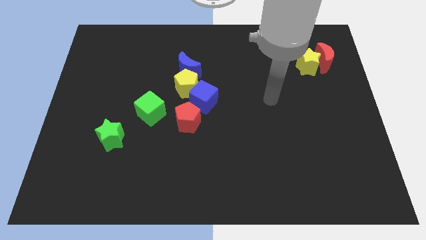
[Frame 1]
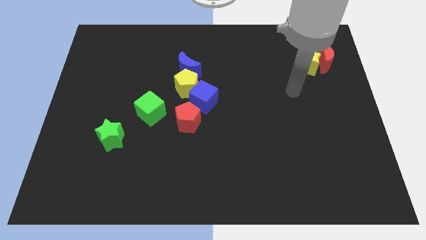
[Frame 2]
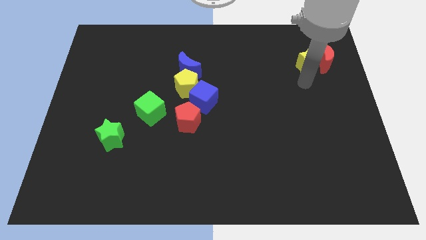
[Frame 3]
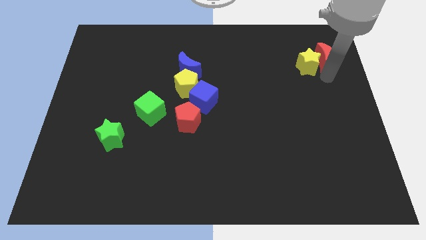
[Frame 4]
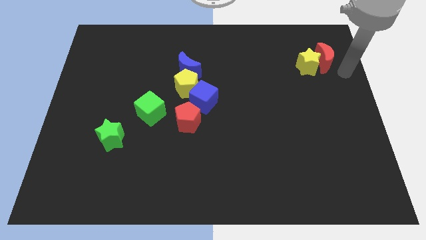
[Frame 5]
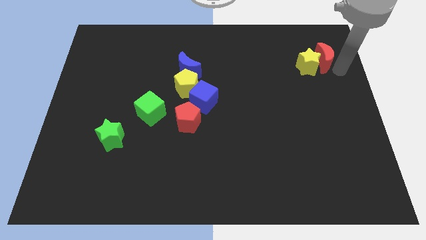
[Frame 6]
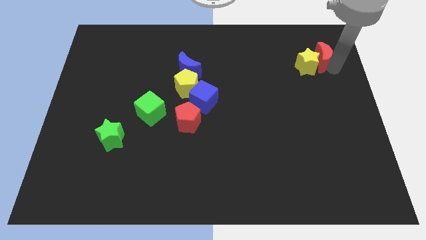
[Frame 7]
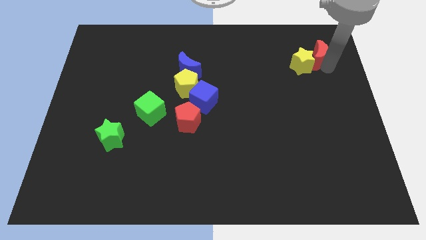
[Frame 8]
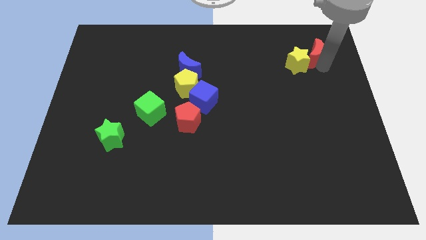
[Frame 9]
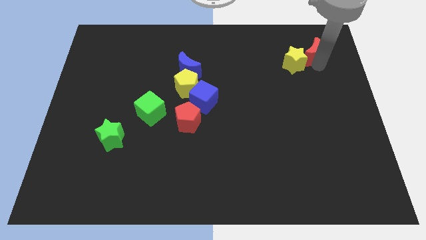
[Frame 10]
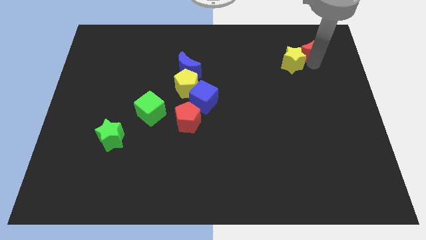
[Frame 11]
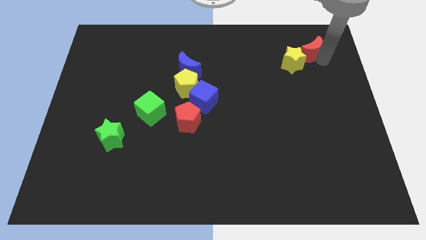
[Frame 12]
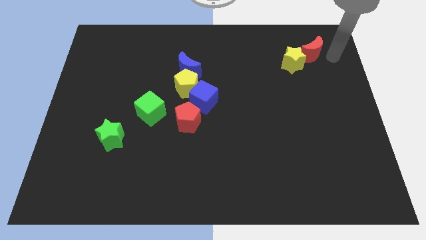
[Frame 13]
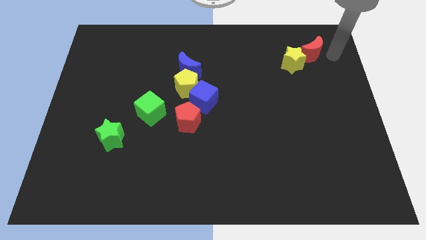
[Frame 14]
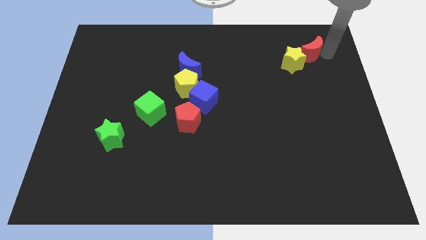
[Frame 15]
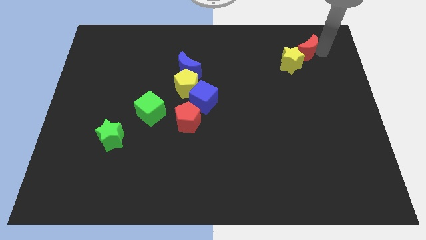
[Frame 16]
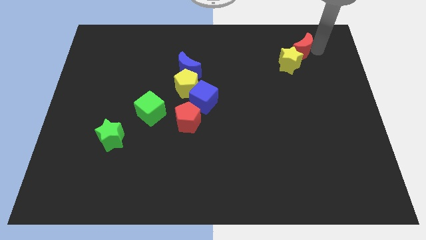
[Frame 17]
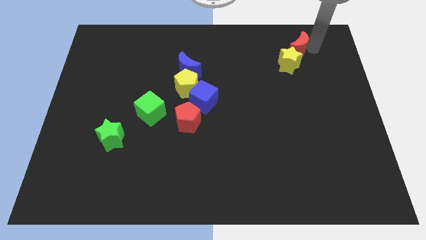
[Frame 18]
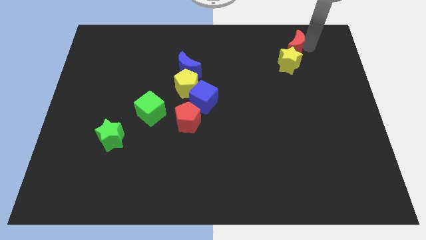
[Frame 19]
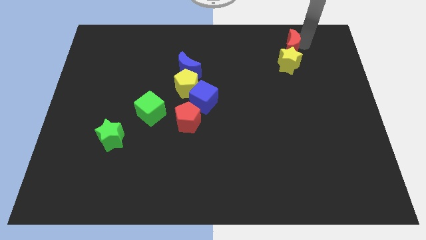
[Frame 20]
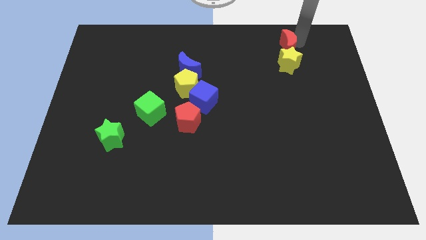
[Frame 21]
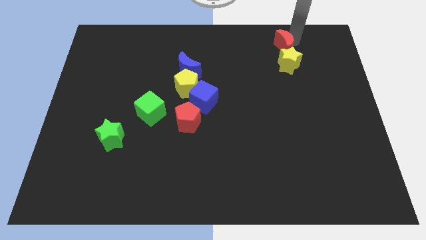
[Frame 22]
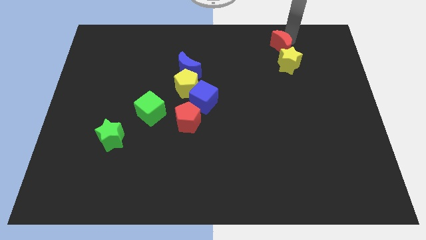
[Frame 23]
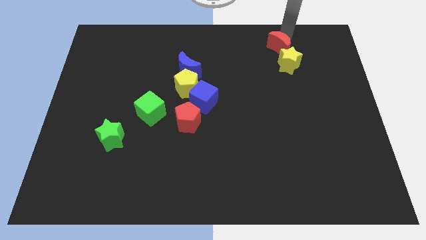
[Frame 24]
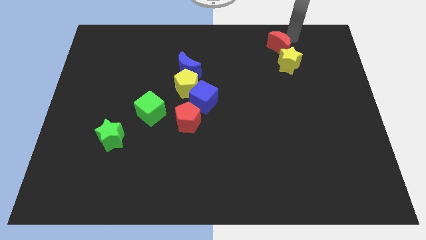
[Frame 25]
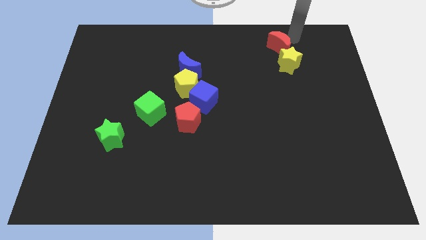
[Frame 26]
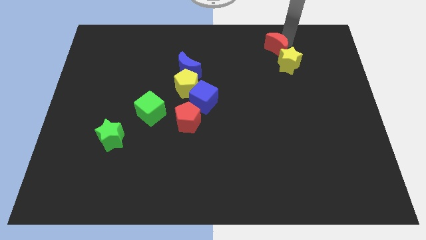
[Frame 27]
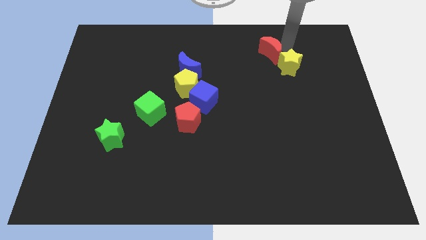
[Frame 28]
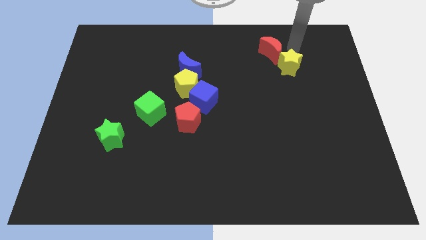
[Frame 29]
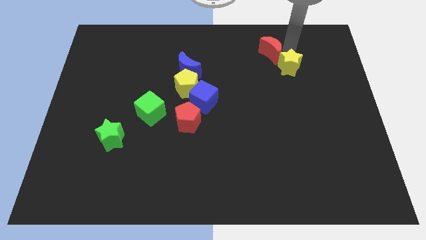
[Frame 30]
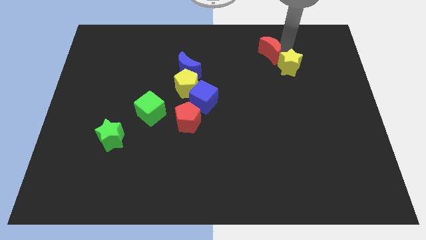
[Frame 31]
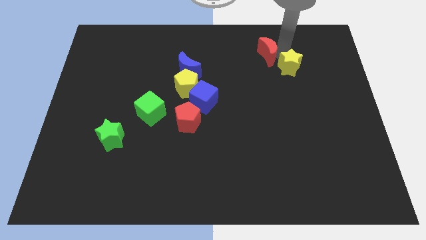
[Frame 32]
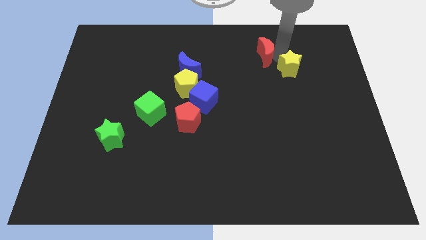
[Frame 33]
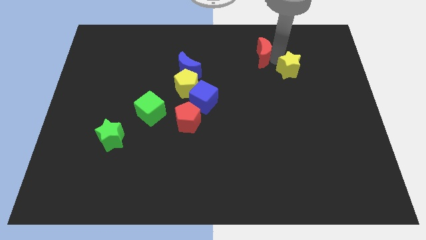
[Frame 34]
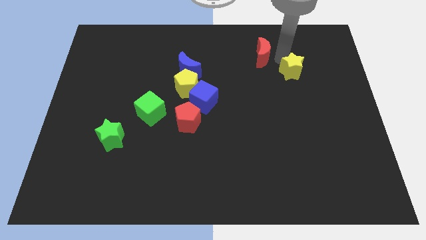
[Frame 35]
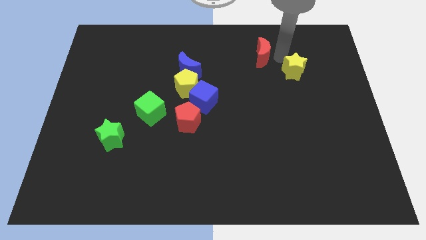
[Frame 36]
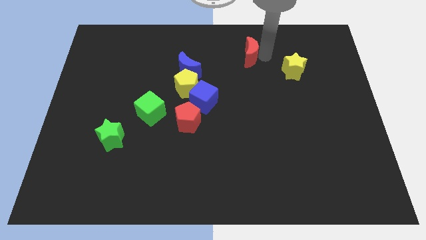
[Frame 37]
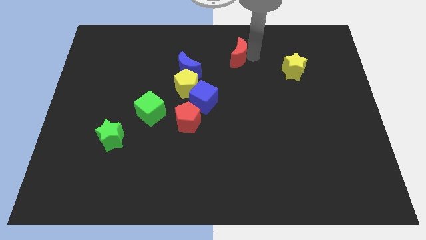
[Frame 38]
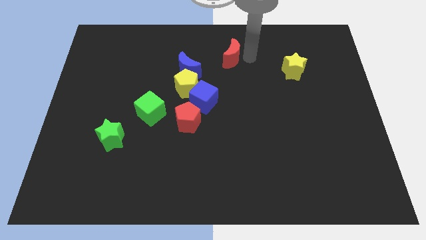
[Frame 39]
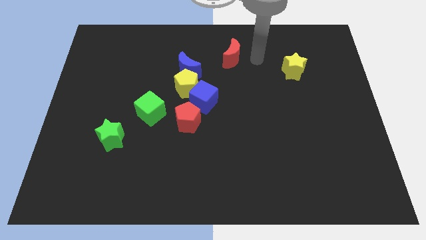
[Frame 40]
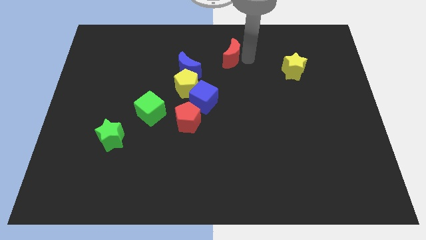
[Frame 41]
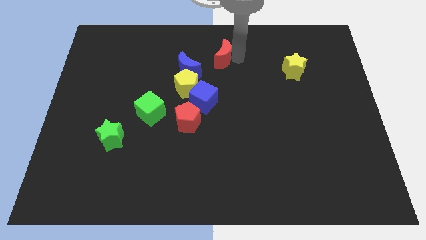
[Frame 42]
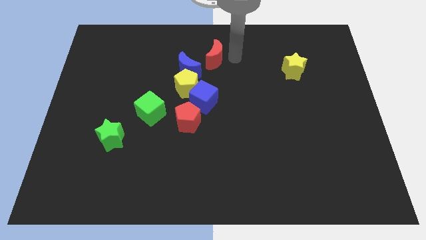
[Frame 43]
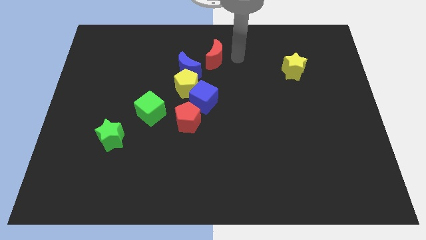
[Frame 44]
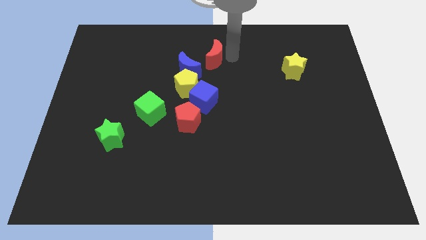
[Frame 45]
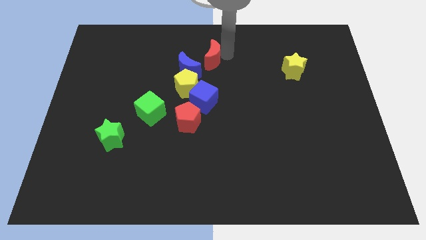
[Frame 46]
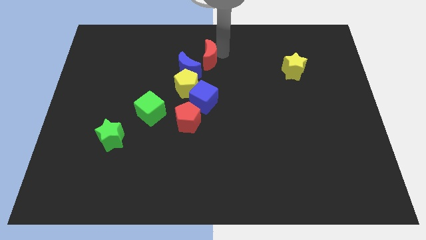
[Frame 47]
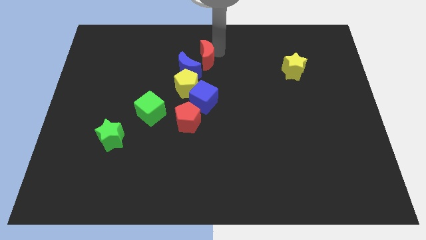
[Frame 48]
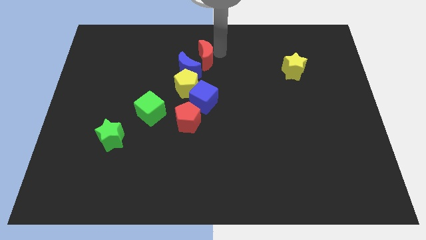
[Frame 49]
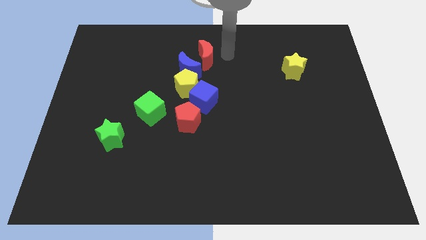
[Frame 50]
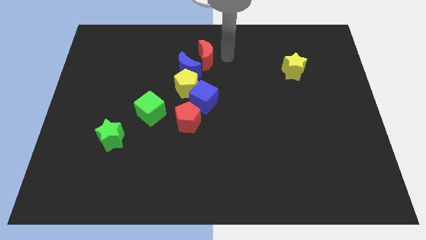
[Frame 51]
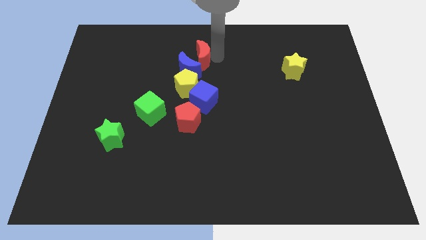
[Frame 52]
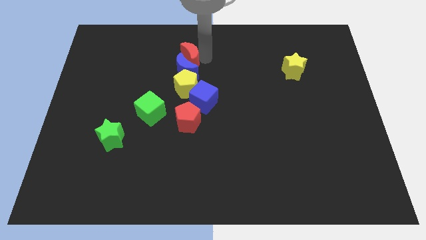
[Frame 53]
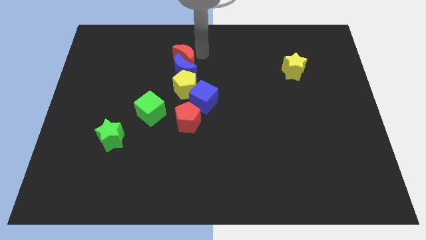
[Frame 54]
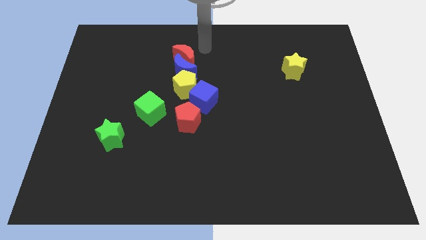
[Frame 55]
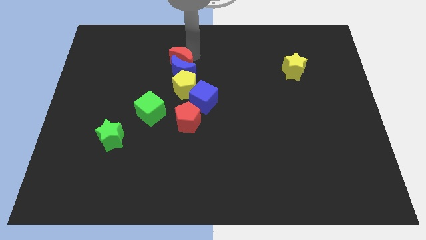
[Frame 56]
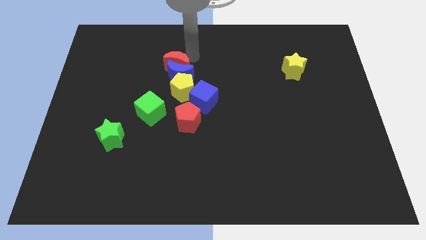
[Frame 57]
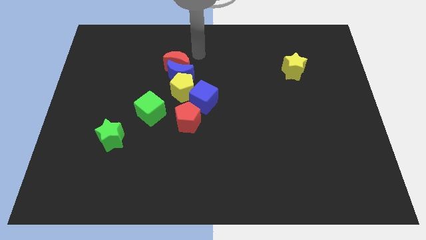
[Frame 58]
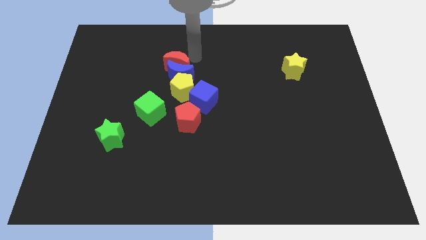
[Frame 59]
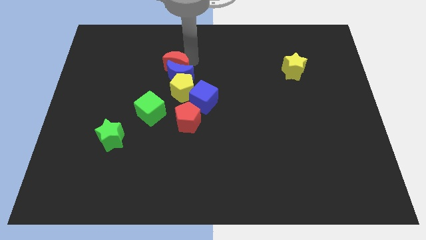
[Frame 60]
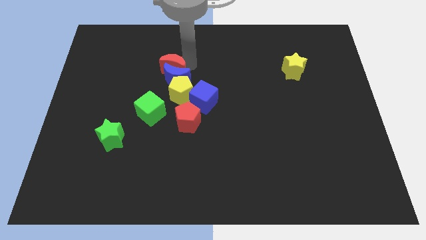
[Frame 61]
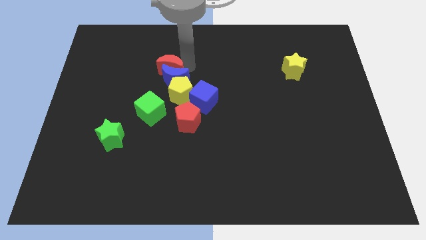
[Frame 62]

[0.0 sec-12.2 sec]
put the red moon to the top of the green cube

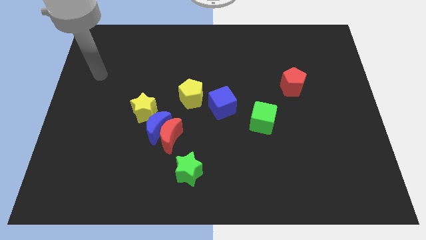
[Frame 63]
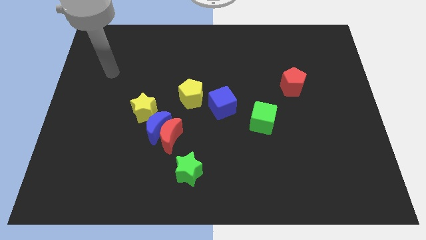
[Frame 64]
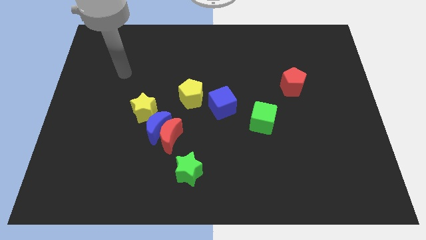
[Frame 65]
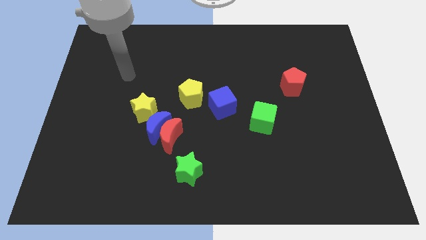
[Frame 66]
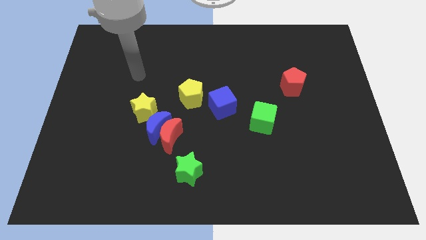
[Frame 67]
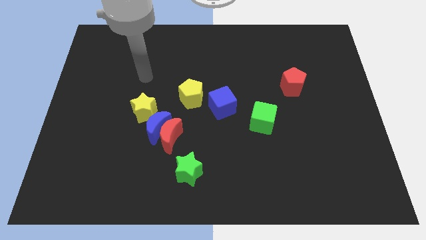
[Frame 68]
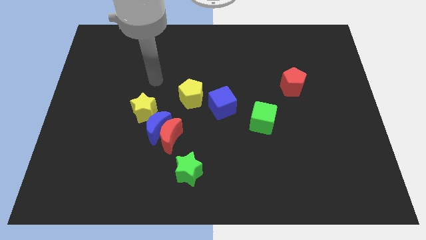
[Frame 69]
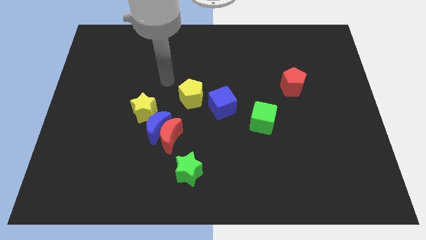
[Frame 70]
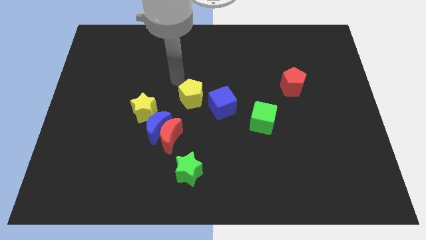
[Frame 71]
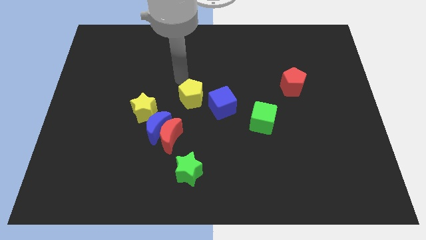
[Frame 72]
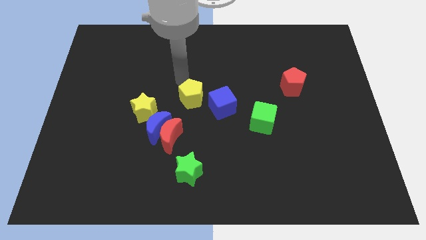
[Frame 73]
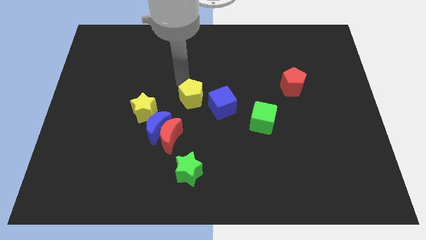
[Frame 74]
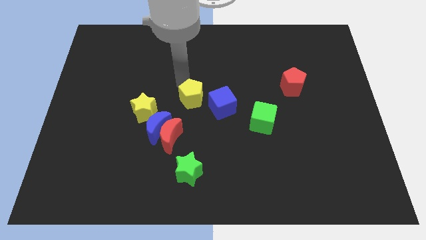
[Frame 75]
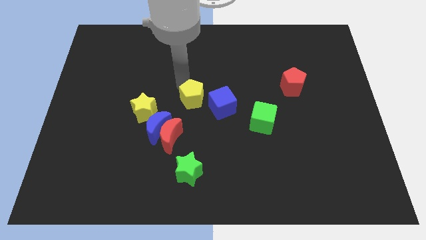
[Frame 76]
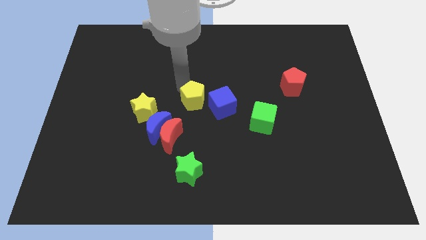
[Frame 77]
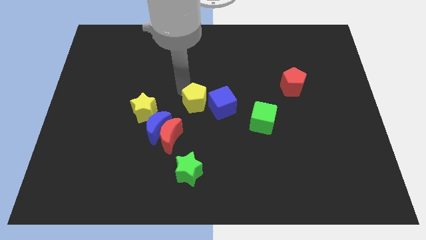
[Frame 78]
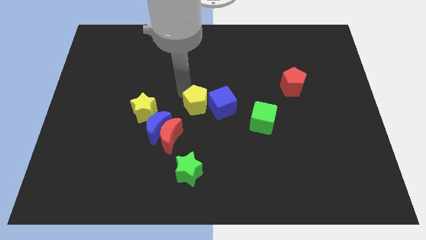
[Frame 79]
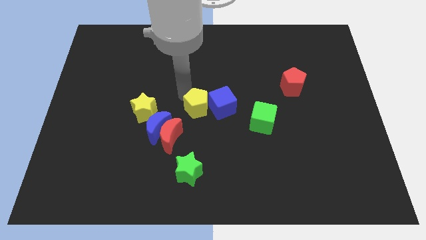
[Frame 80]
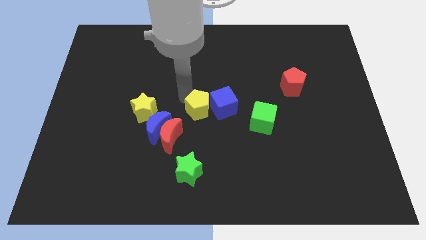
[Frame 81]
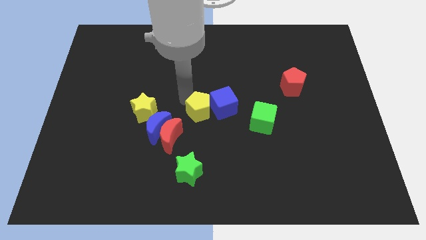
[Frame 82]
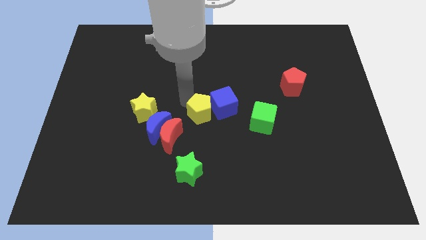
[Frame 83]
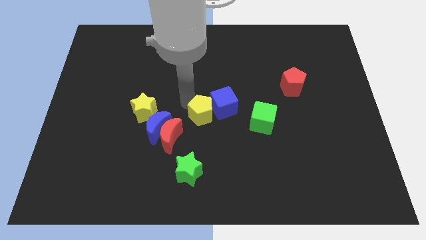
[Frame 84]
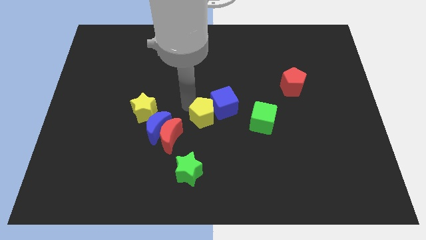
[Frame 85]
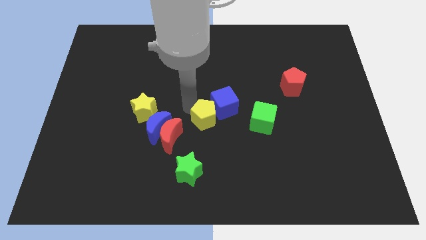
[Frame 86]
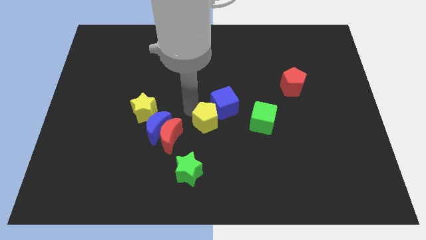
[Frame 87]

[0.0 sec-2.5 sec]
put the yellow pentagon to the right of the red moon
